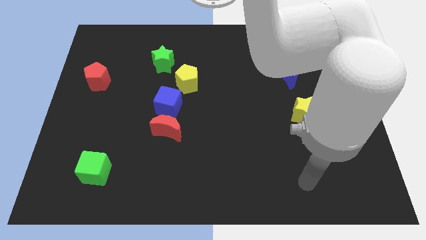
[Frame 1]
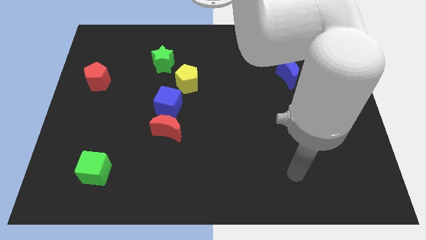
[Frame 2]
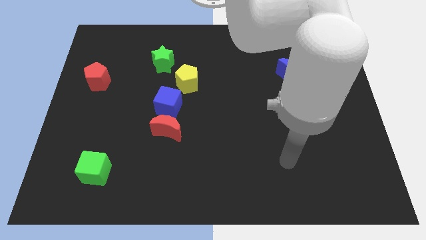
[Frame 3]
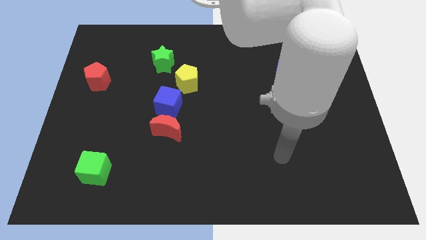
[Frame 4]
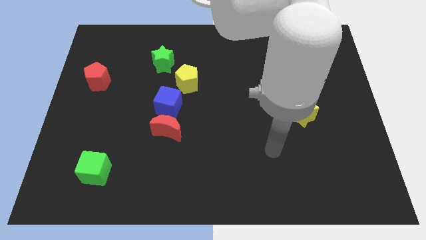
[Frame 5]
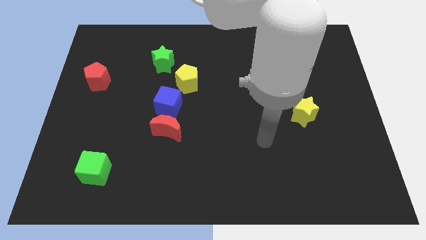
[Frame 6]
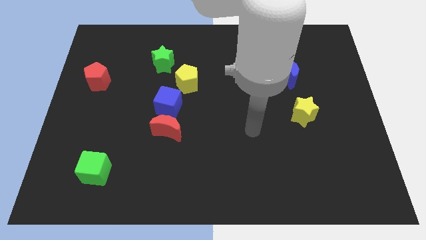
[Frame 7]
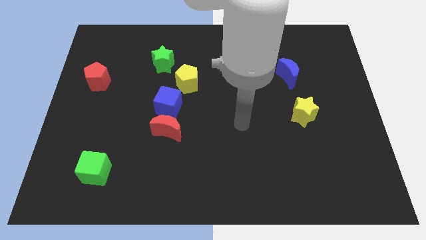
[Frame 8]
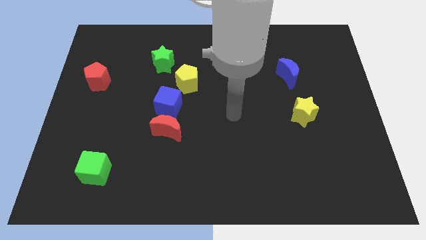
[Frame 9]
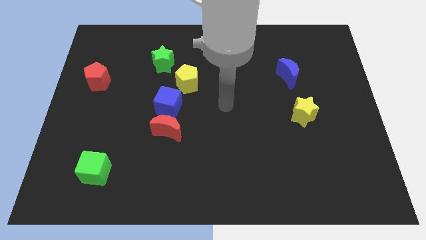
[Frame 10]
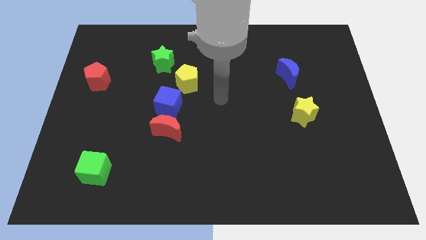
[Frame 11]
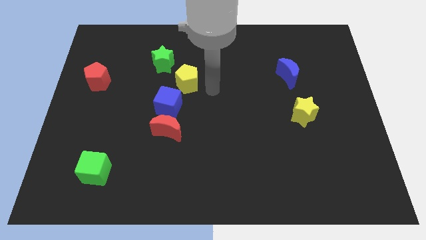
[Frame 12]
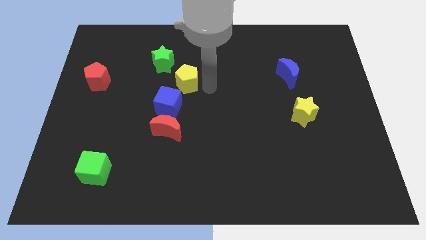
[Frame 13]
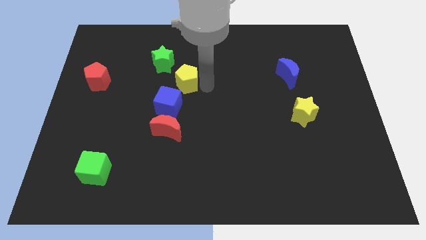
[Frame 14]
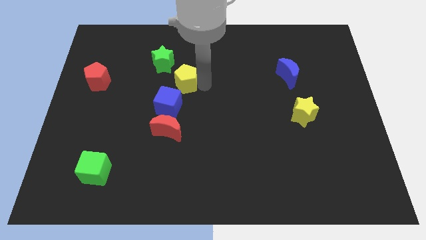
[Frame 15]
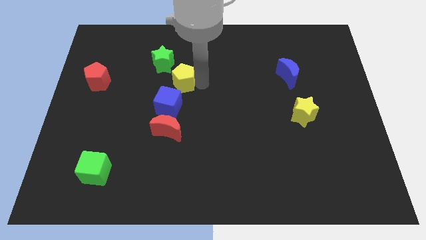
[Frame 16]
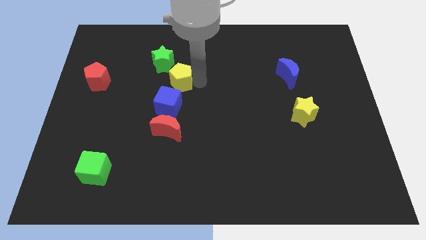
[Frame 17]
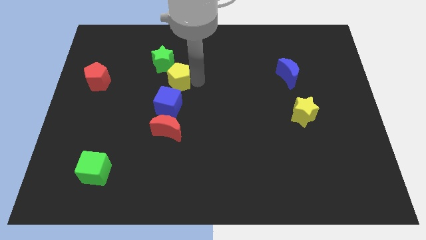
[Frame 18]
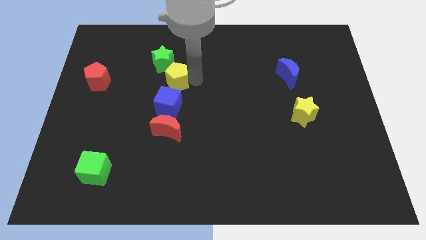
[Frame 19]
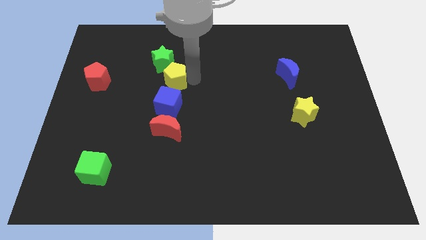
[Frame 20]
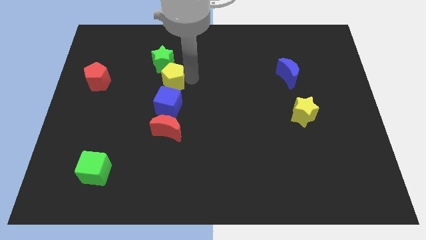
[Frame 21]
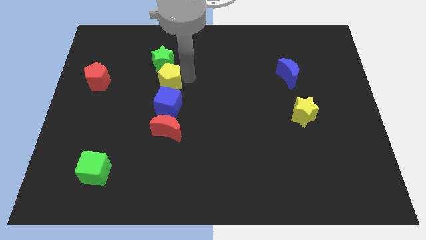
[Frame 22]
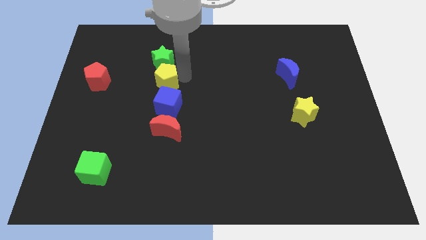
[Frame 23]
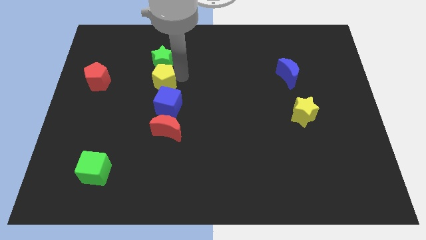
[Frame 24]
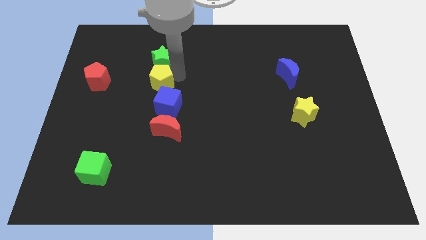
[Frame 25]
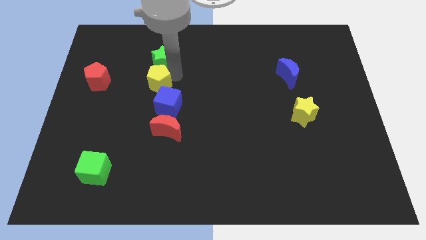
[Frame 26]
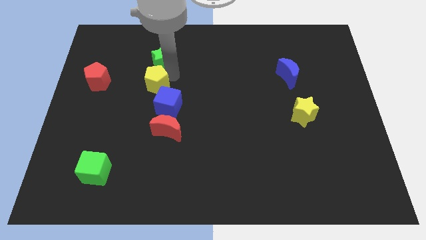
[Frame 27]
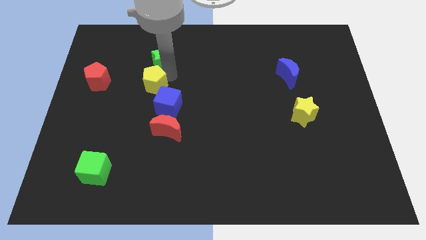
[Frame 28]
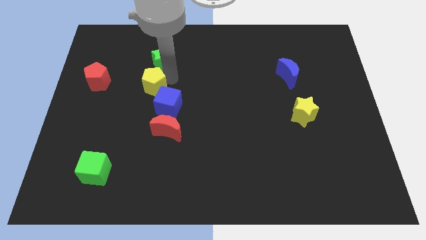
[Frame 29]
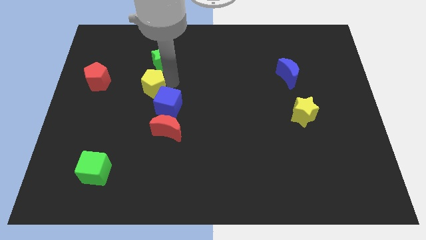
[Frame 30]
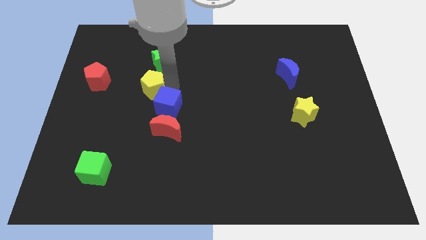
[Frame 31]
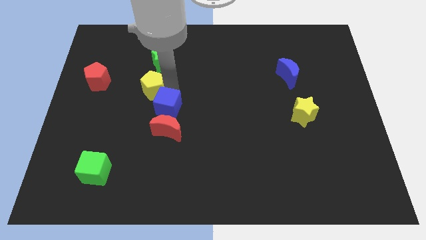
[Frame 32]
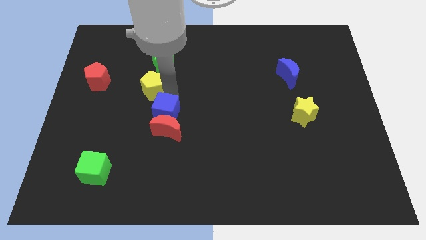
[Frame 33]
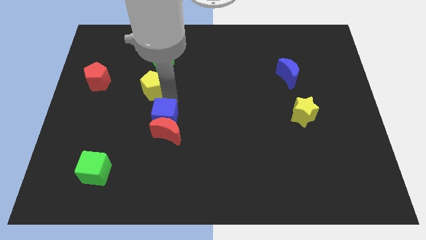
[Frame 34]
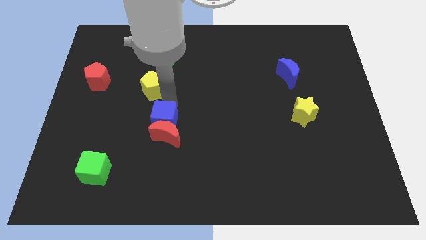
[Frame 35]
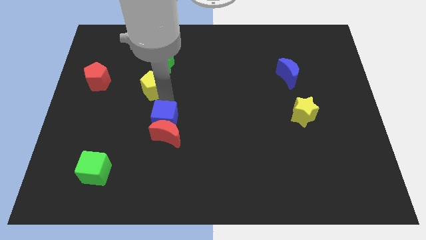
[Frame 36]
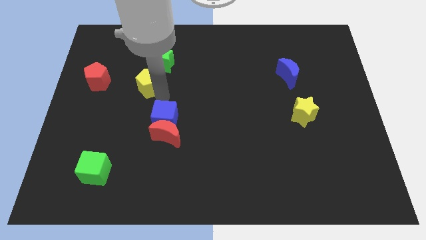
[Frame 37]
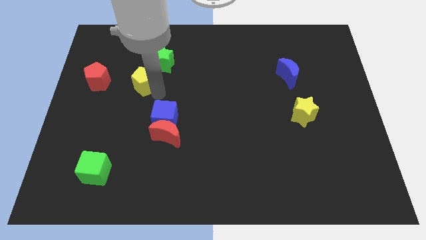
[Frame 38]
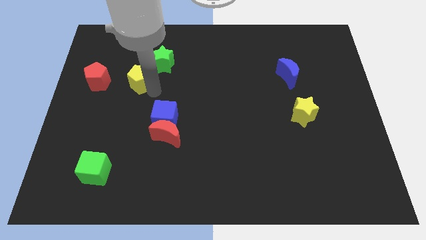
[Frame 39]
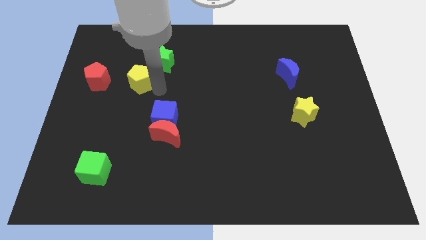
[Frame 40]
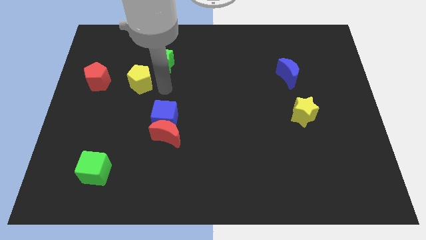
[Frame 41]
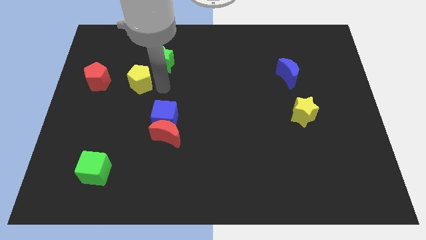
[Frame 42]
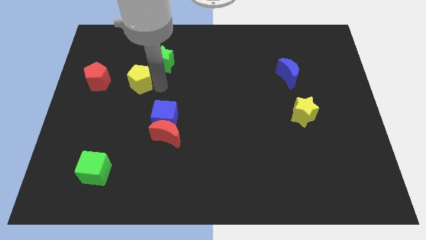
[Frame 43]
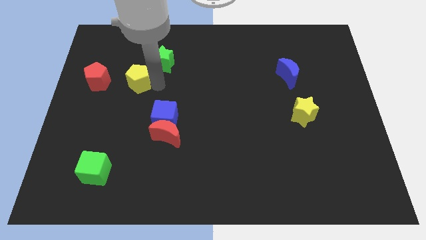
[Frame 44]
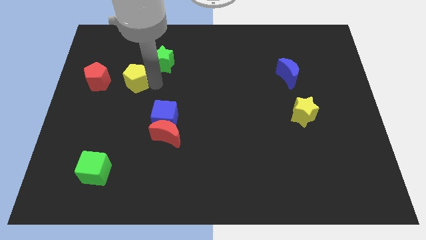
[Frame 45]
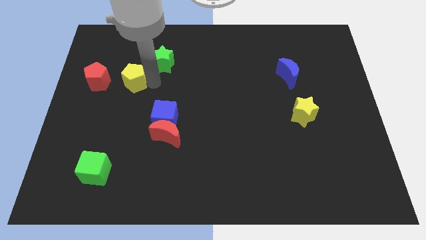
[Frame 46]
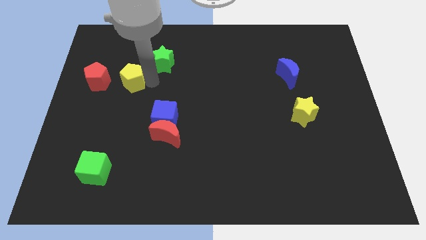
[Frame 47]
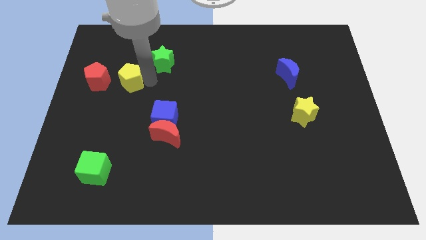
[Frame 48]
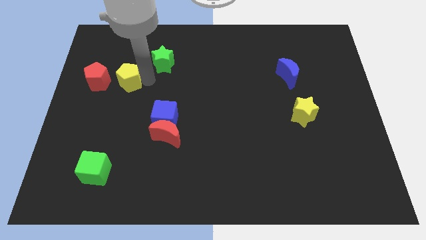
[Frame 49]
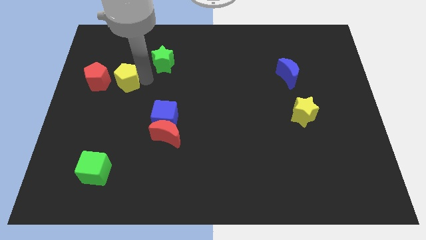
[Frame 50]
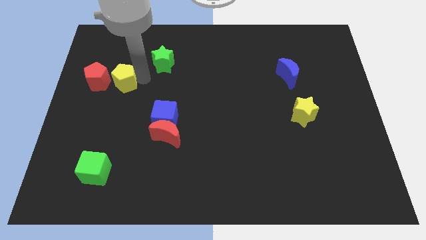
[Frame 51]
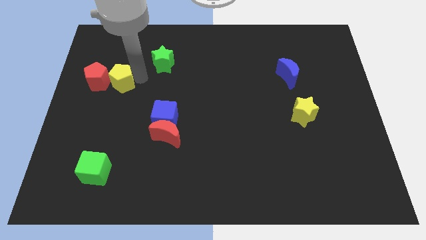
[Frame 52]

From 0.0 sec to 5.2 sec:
slide the yellow pentagon to the red pentagon

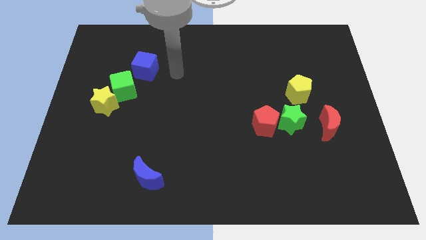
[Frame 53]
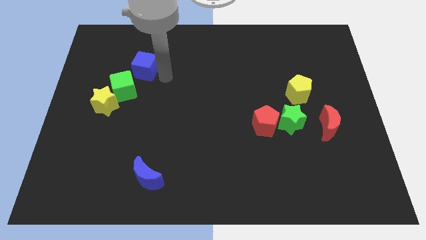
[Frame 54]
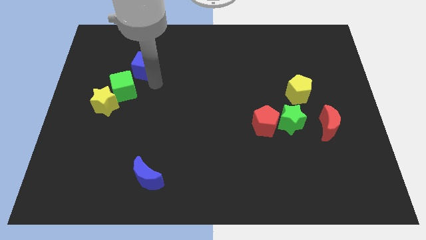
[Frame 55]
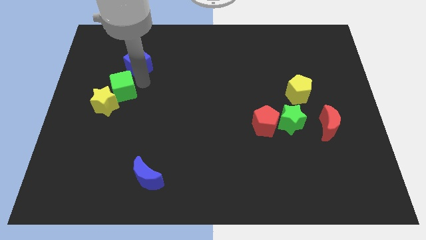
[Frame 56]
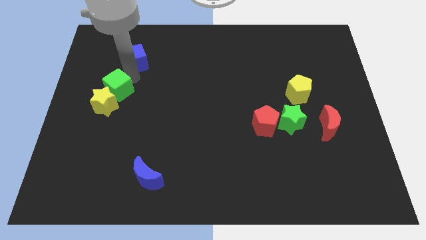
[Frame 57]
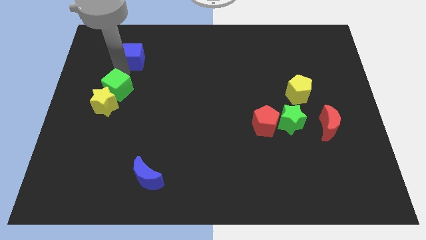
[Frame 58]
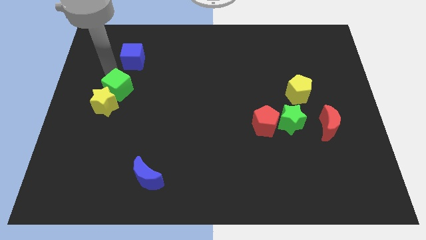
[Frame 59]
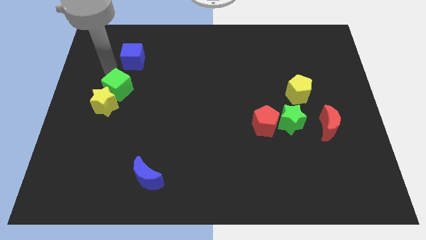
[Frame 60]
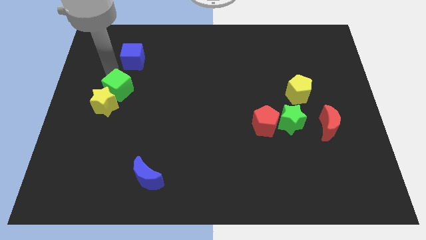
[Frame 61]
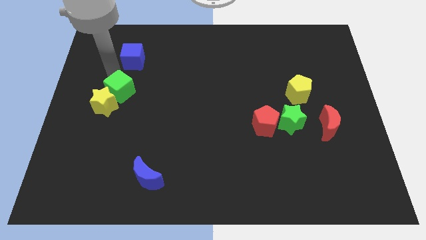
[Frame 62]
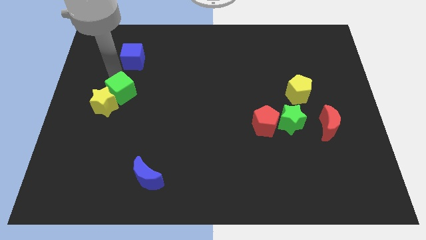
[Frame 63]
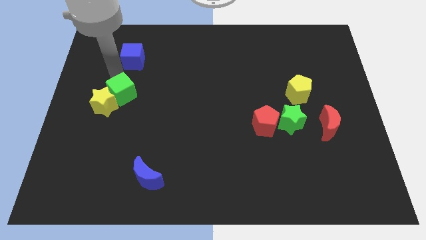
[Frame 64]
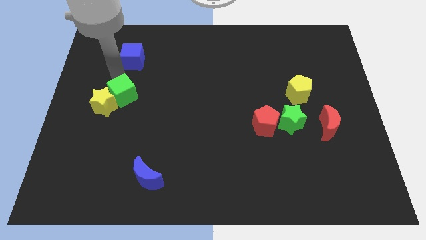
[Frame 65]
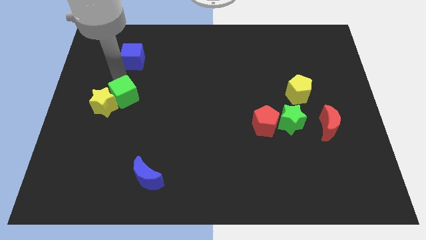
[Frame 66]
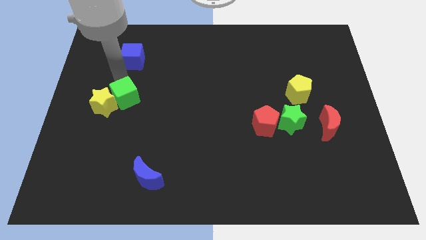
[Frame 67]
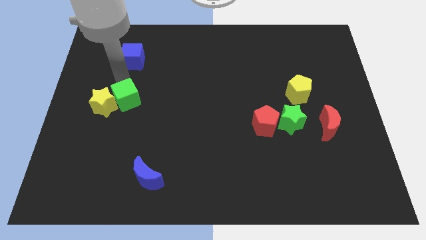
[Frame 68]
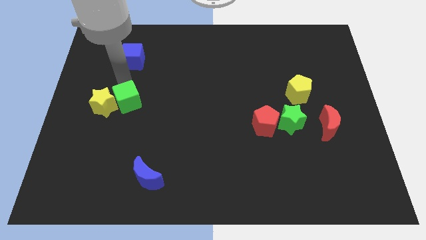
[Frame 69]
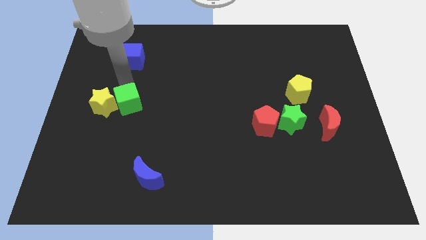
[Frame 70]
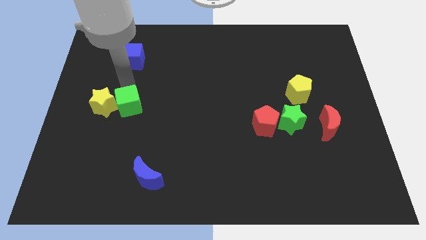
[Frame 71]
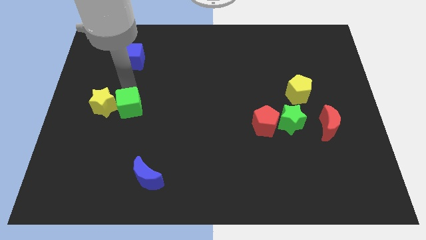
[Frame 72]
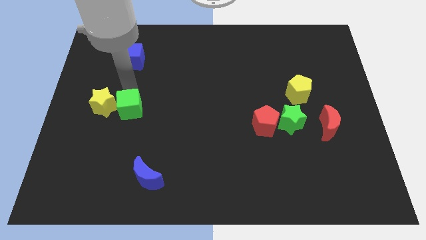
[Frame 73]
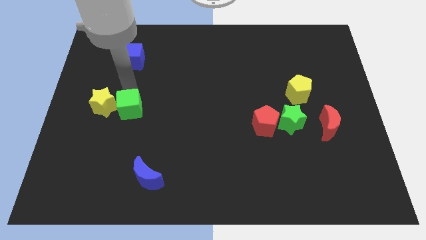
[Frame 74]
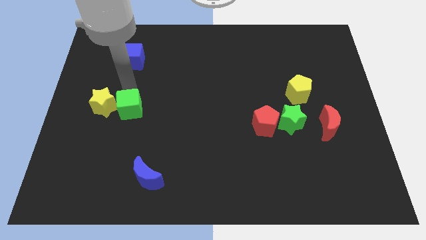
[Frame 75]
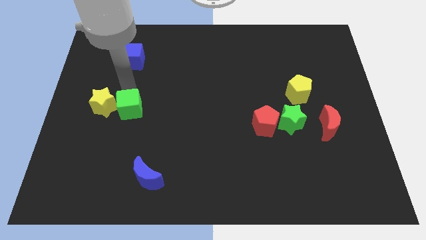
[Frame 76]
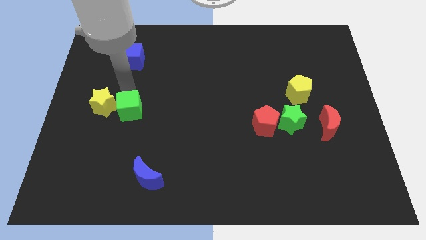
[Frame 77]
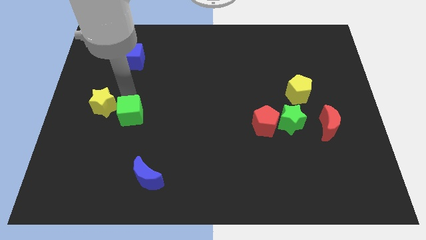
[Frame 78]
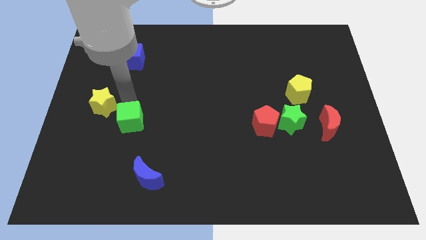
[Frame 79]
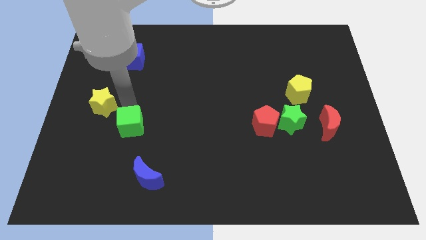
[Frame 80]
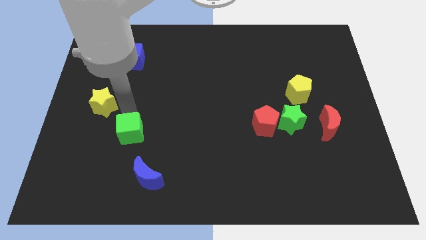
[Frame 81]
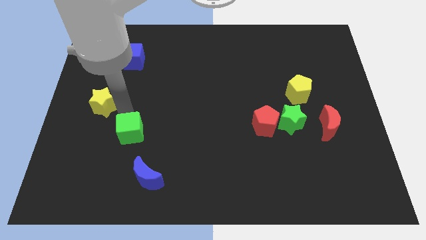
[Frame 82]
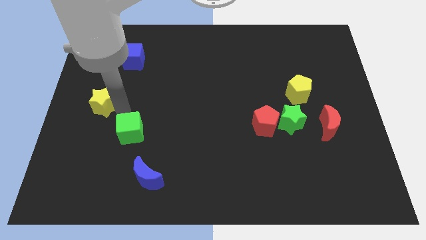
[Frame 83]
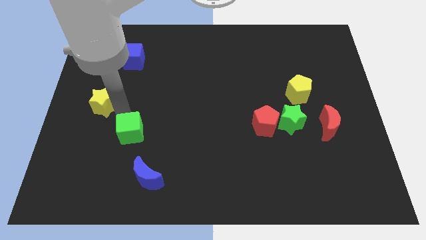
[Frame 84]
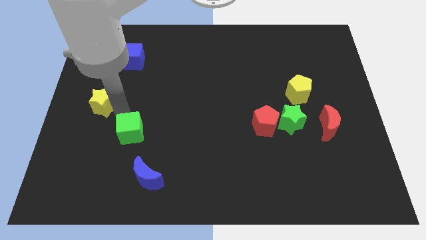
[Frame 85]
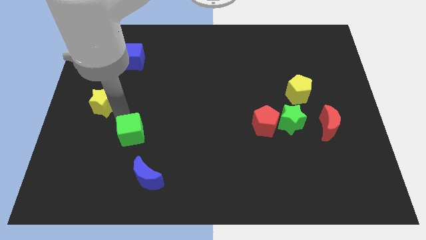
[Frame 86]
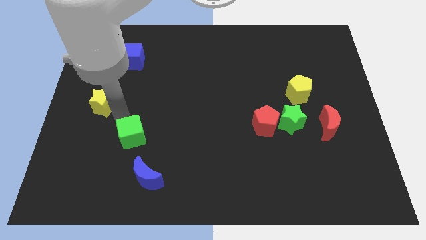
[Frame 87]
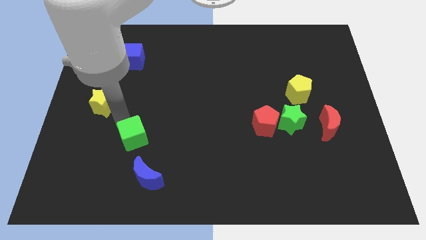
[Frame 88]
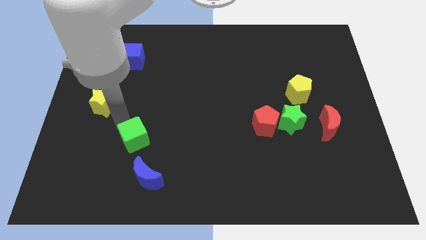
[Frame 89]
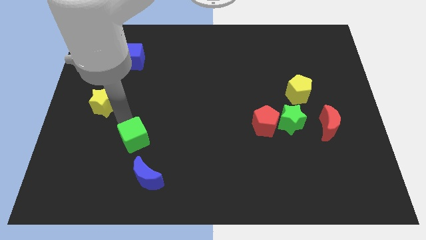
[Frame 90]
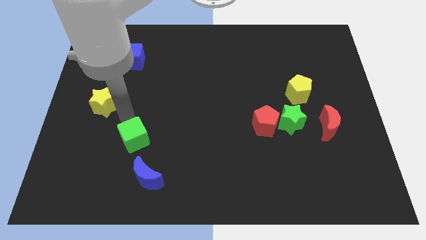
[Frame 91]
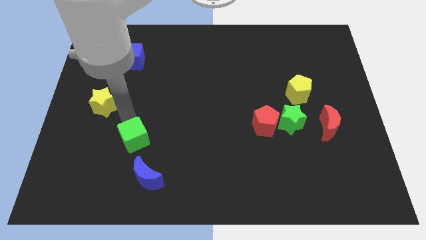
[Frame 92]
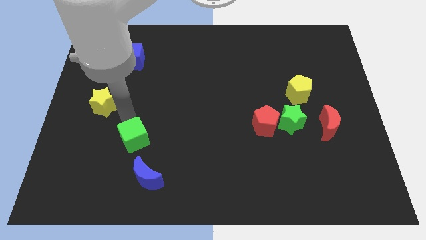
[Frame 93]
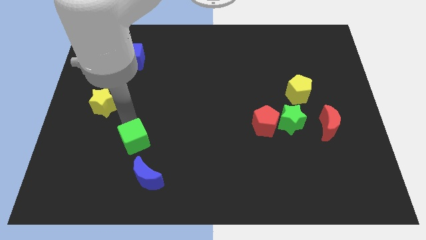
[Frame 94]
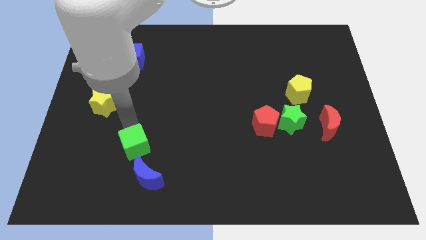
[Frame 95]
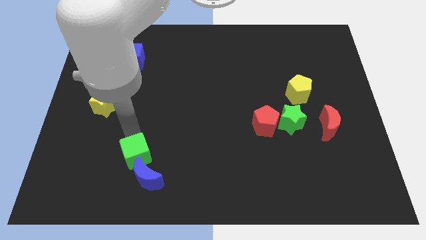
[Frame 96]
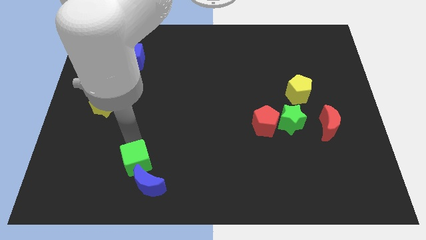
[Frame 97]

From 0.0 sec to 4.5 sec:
slide the green cube towards the blue moon
